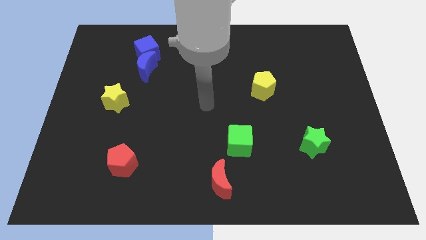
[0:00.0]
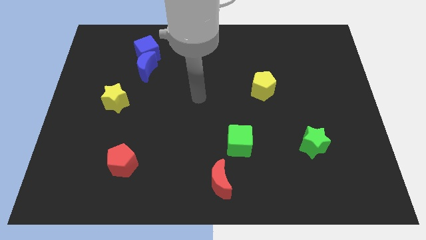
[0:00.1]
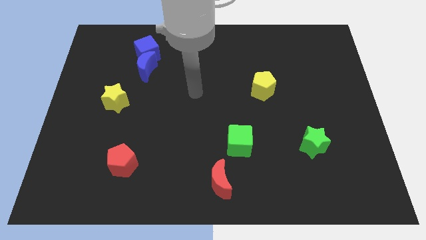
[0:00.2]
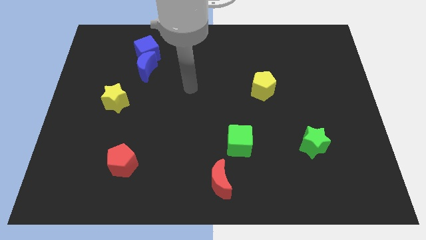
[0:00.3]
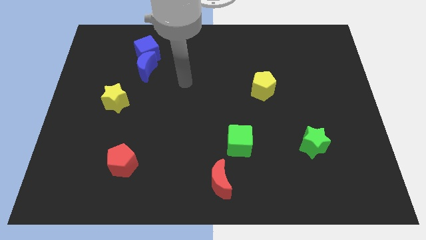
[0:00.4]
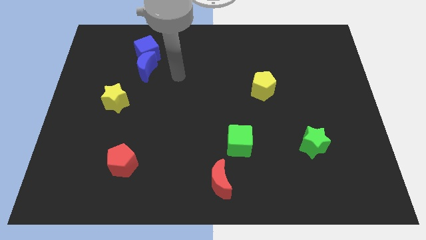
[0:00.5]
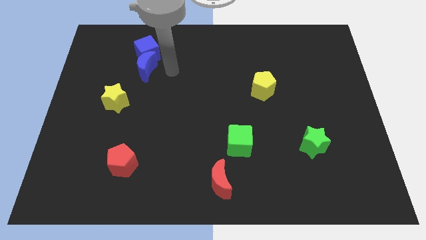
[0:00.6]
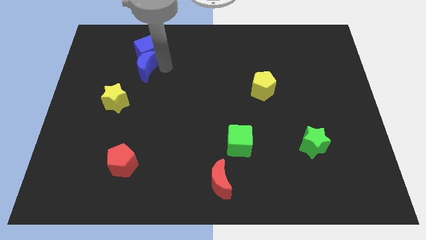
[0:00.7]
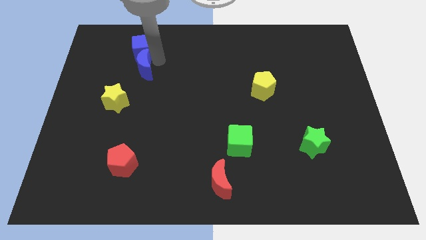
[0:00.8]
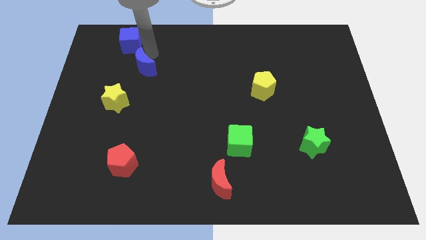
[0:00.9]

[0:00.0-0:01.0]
move the blue moon away from the blue cube

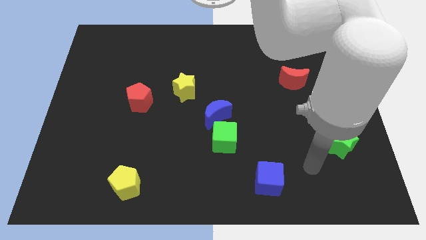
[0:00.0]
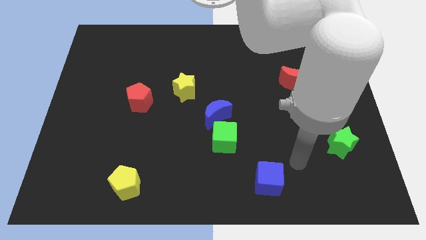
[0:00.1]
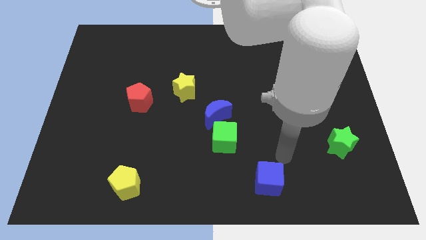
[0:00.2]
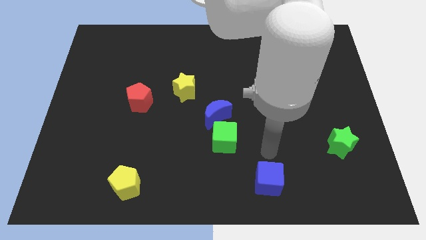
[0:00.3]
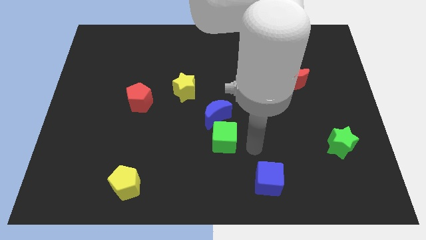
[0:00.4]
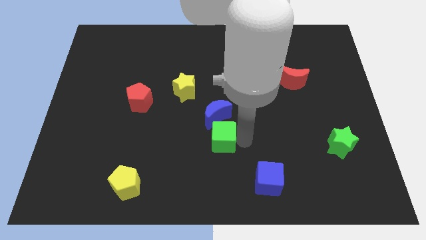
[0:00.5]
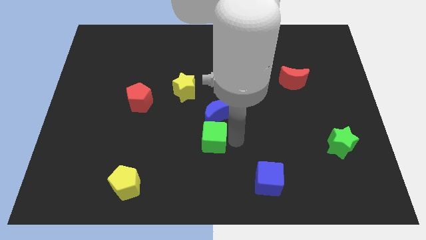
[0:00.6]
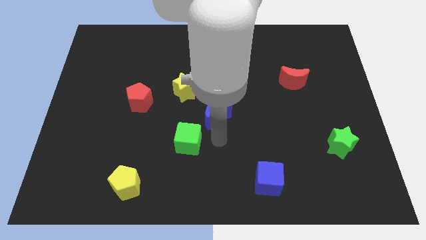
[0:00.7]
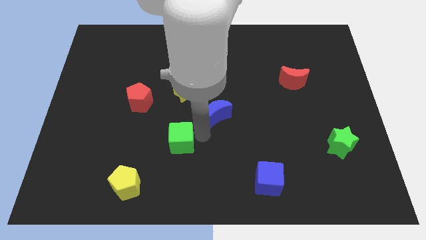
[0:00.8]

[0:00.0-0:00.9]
separate the blue moon from the green cube

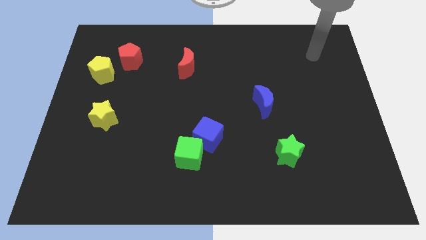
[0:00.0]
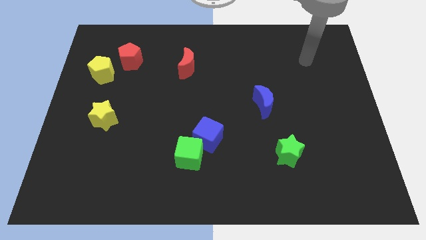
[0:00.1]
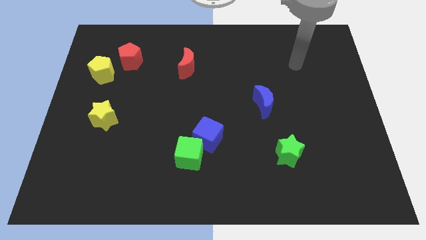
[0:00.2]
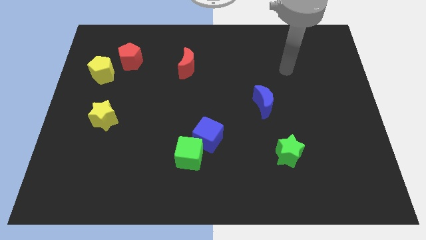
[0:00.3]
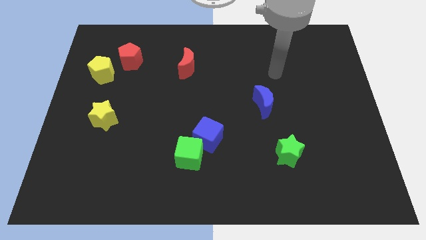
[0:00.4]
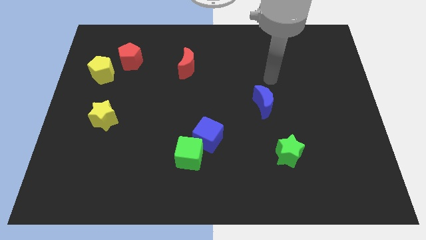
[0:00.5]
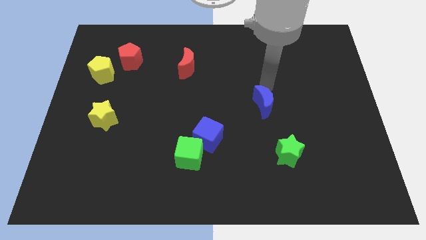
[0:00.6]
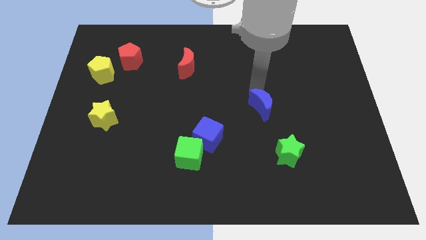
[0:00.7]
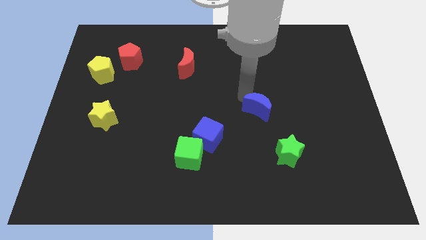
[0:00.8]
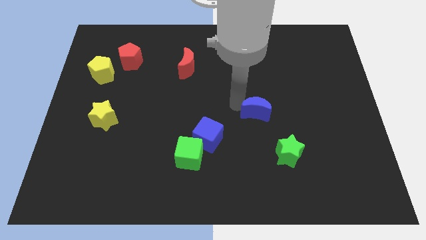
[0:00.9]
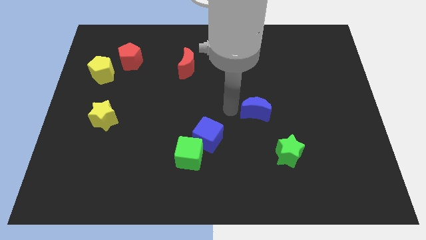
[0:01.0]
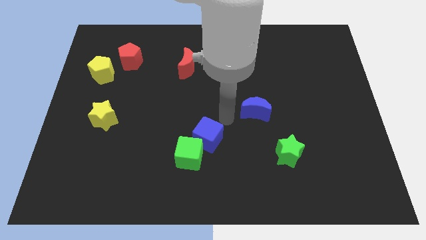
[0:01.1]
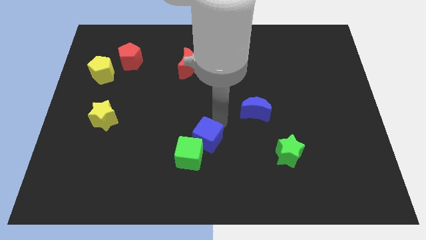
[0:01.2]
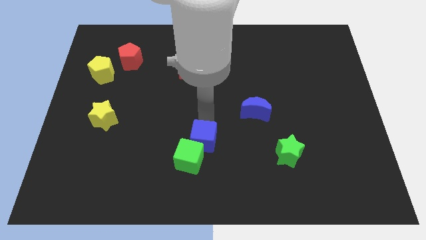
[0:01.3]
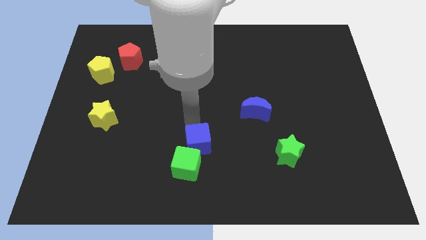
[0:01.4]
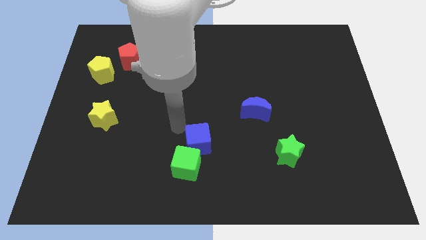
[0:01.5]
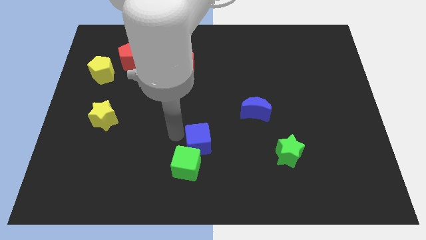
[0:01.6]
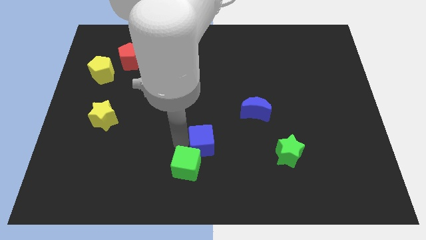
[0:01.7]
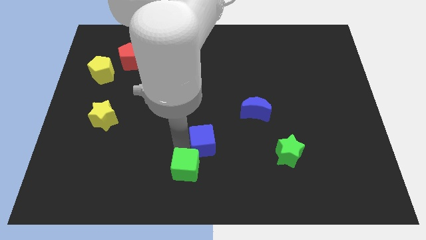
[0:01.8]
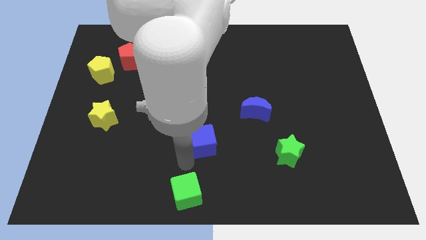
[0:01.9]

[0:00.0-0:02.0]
pull the blue cube apart from the green cube

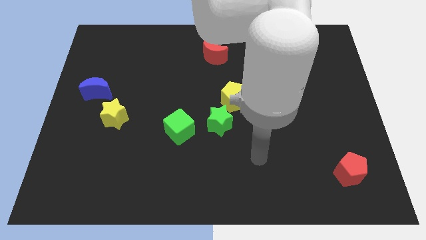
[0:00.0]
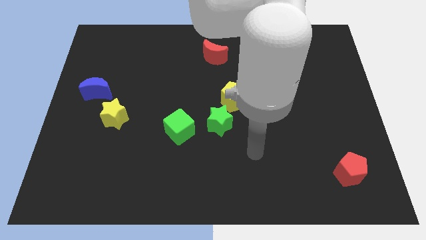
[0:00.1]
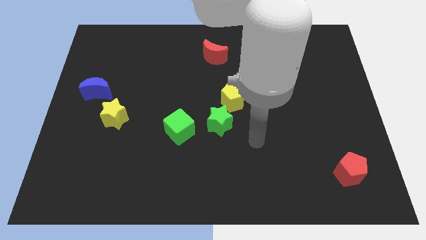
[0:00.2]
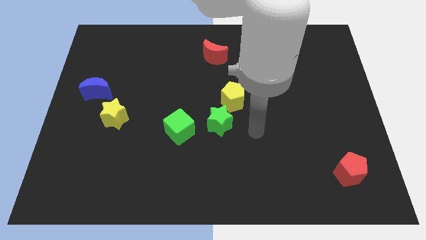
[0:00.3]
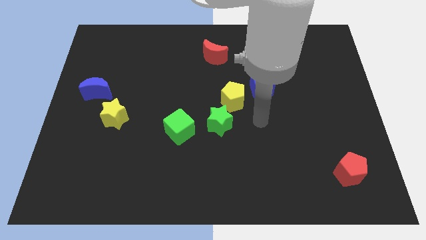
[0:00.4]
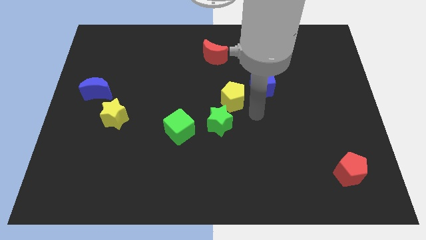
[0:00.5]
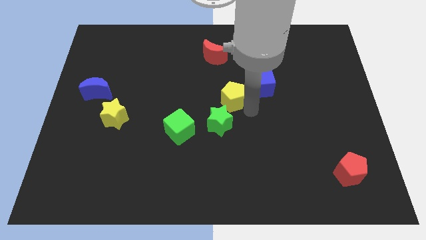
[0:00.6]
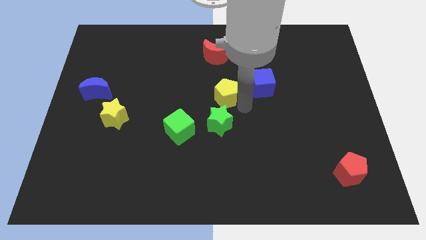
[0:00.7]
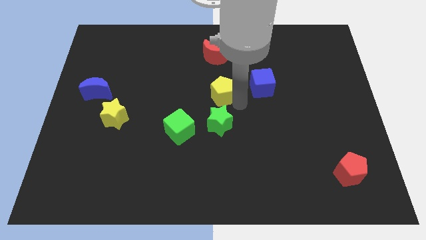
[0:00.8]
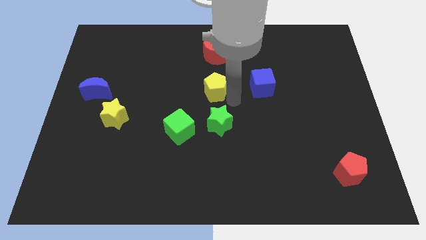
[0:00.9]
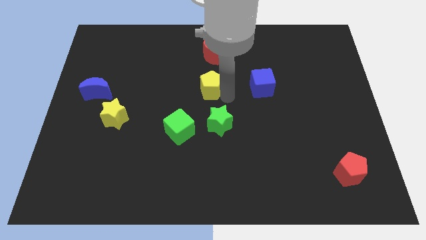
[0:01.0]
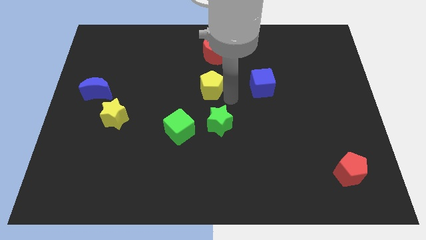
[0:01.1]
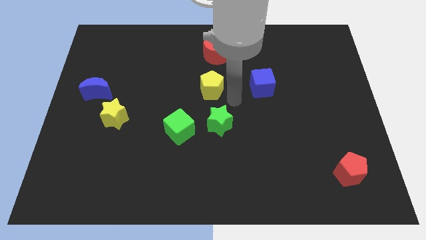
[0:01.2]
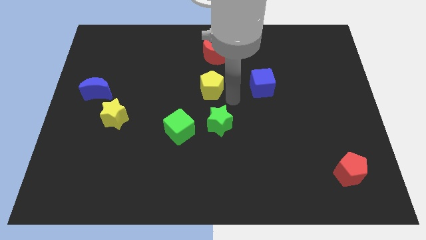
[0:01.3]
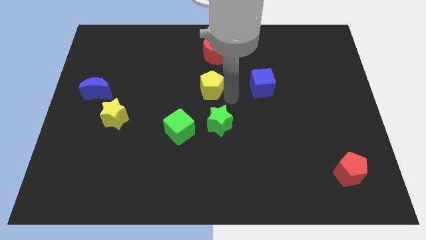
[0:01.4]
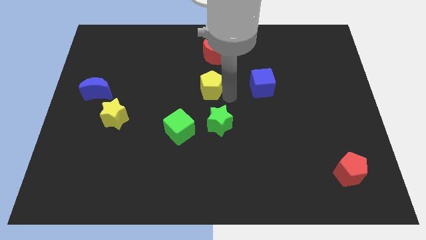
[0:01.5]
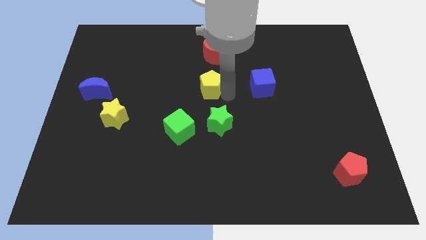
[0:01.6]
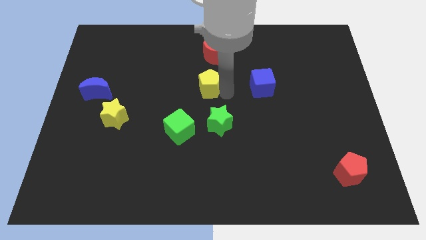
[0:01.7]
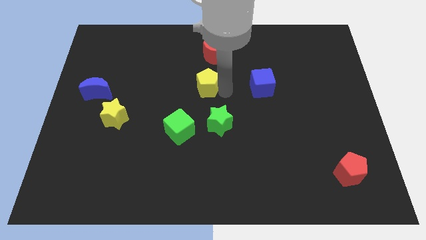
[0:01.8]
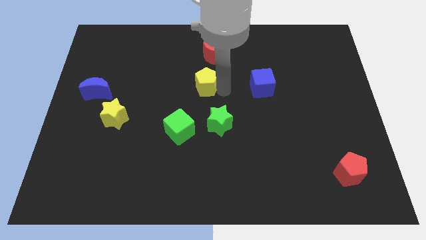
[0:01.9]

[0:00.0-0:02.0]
separate the yellow pentagon from the green star and blue cube

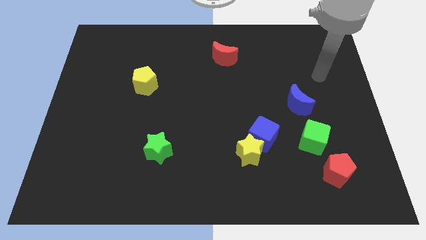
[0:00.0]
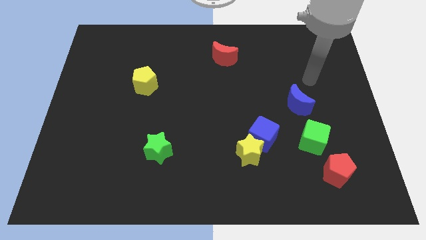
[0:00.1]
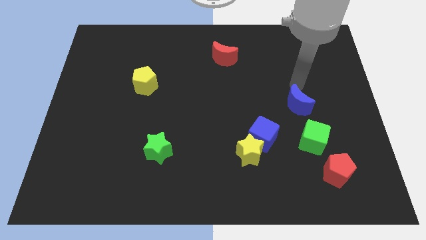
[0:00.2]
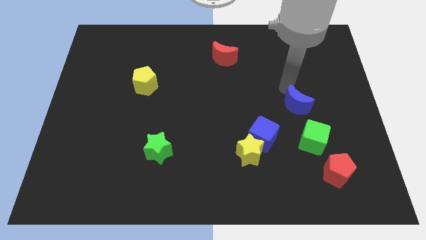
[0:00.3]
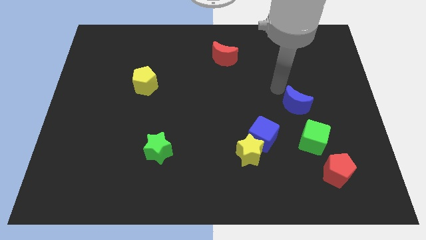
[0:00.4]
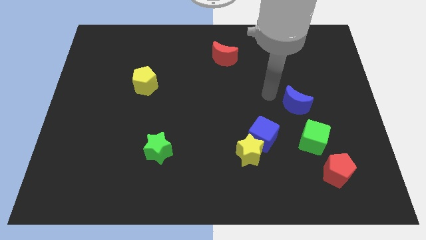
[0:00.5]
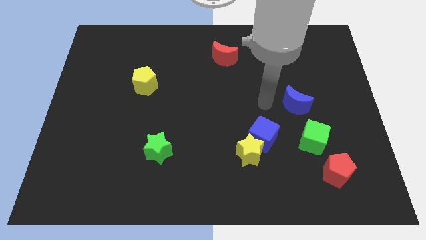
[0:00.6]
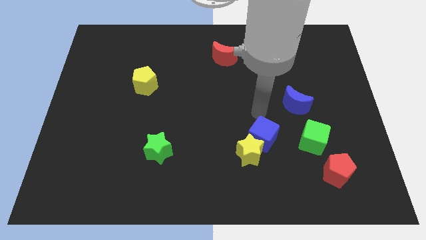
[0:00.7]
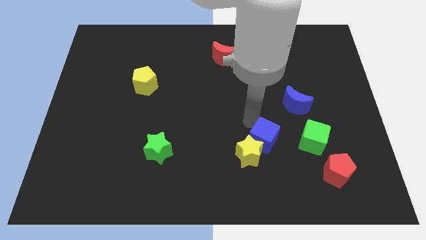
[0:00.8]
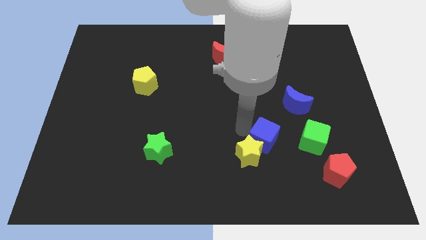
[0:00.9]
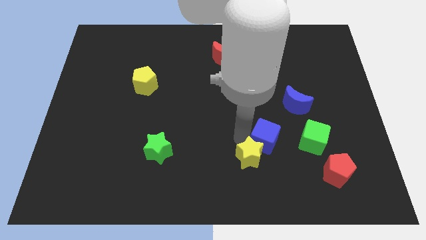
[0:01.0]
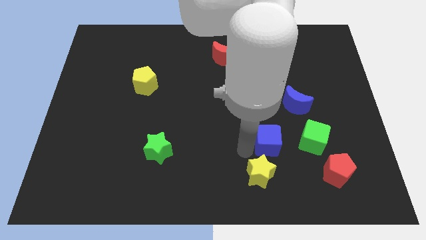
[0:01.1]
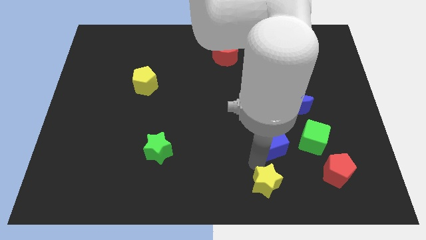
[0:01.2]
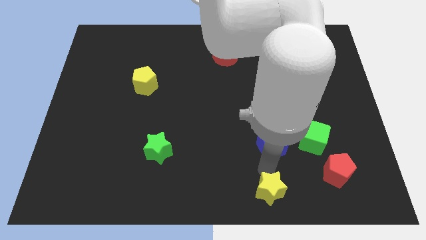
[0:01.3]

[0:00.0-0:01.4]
move the blue cube away from the yellow star

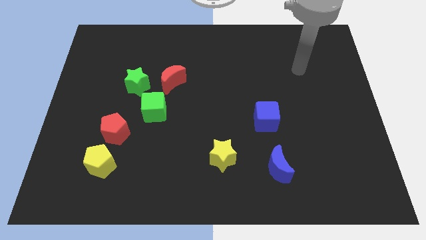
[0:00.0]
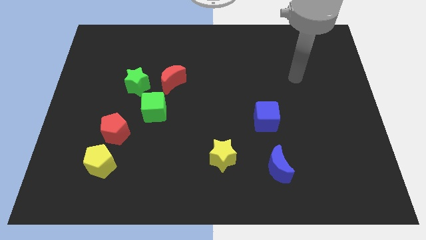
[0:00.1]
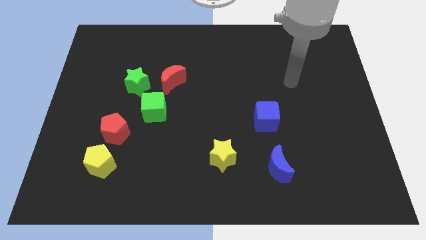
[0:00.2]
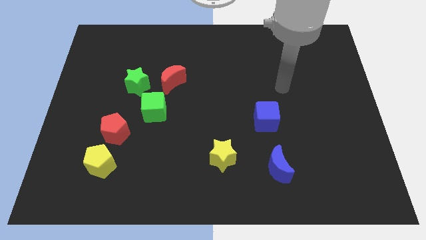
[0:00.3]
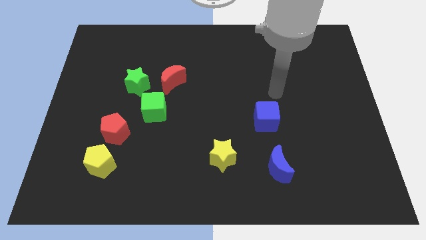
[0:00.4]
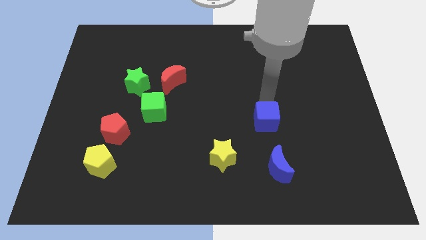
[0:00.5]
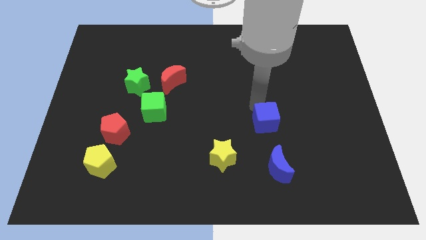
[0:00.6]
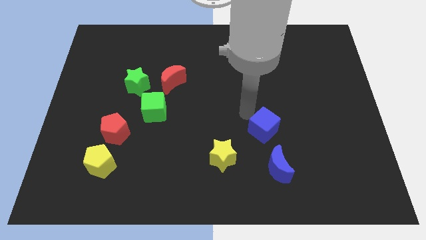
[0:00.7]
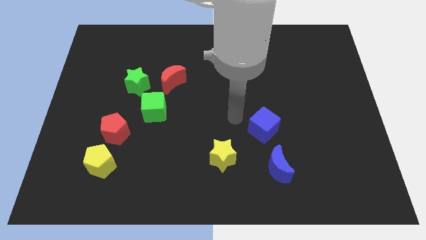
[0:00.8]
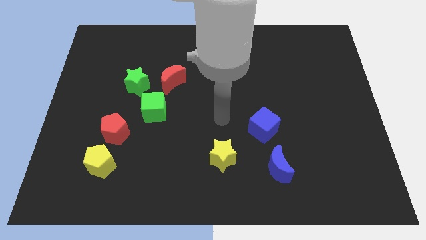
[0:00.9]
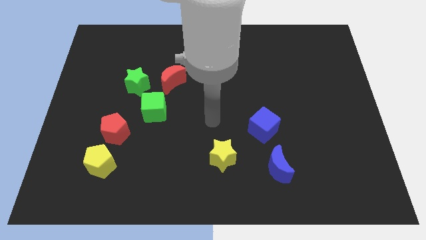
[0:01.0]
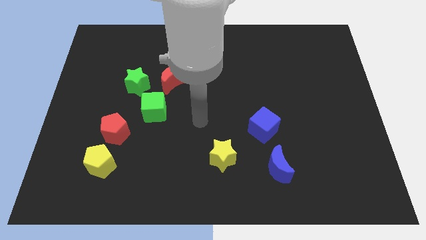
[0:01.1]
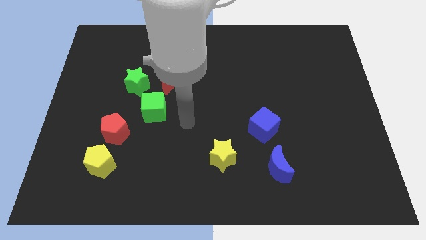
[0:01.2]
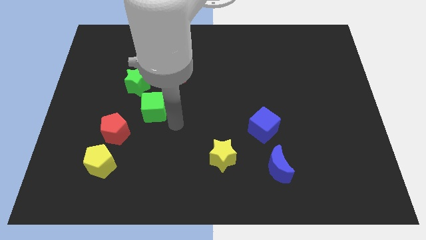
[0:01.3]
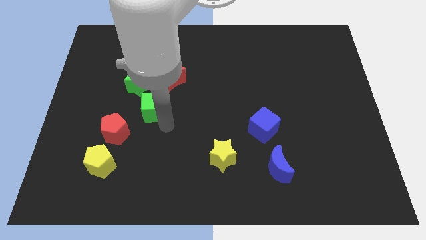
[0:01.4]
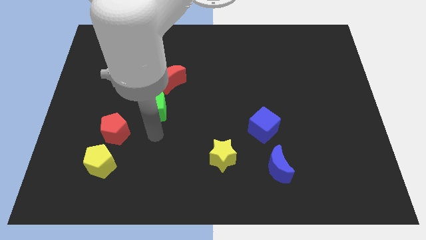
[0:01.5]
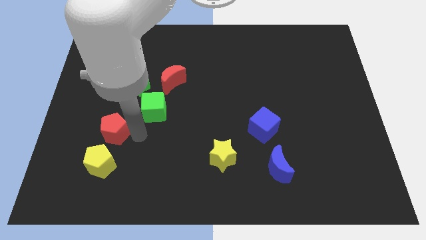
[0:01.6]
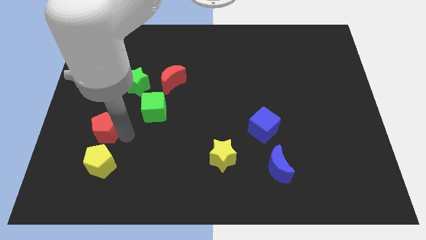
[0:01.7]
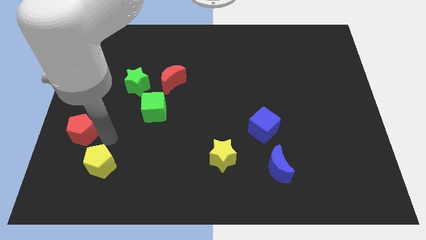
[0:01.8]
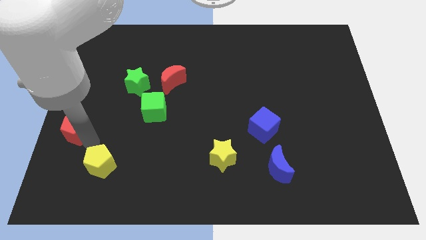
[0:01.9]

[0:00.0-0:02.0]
pull the yellow pentagon apart from the red pentagon

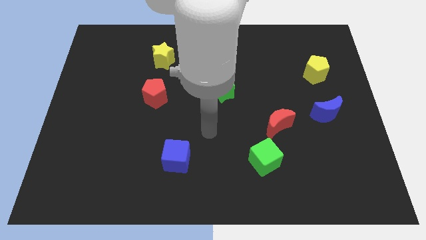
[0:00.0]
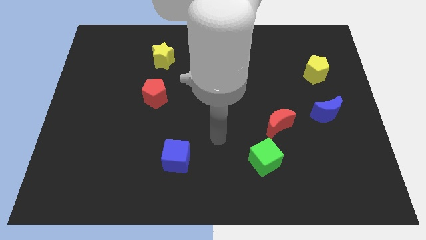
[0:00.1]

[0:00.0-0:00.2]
move the red moon away from the green cube
